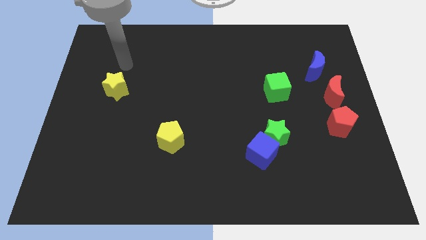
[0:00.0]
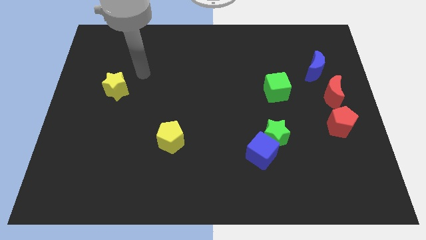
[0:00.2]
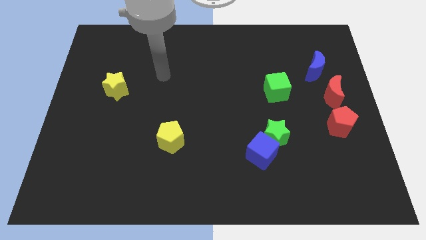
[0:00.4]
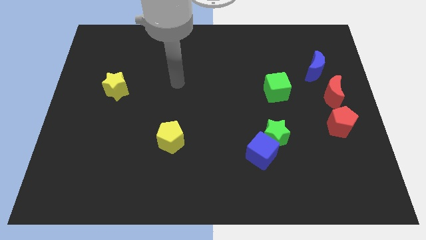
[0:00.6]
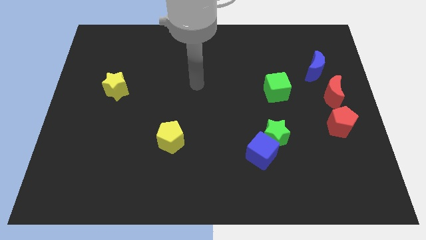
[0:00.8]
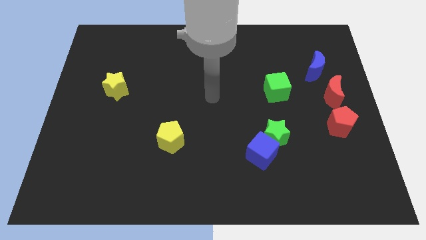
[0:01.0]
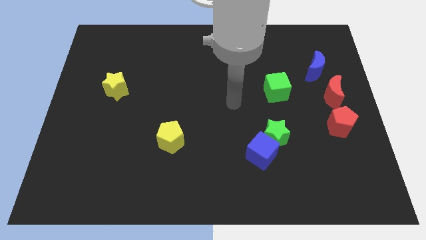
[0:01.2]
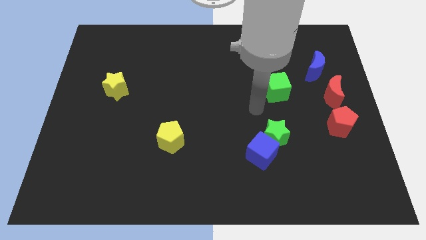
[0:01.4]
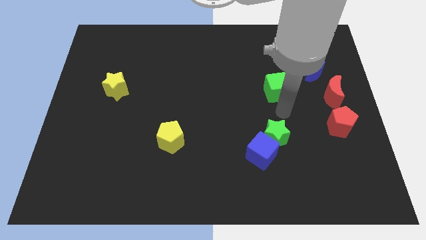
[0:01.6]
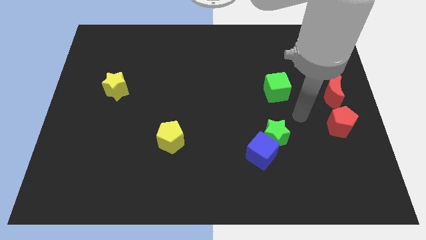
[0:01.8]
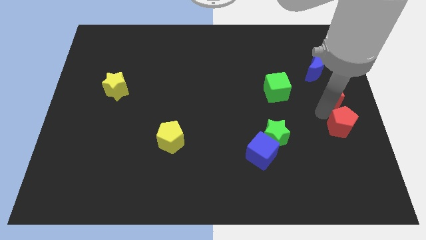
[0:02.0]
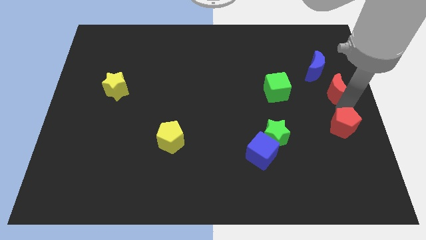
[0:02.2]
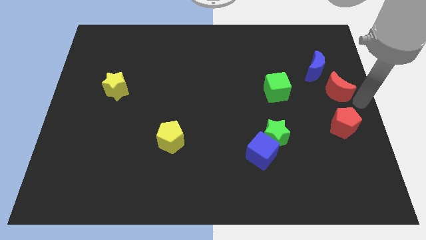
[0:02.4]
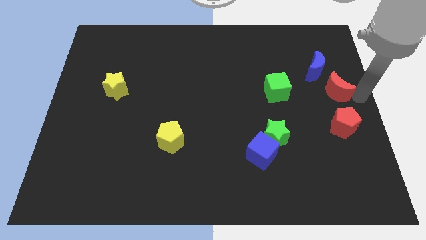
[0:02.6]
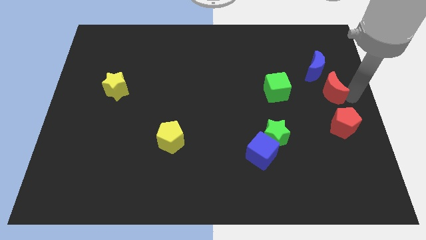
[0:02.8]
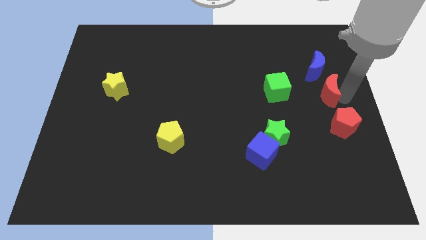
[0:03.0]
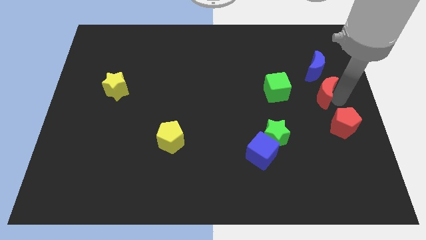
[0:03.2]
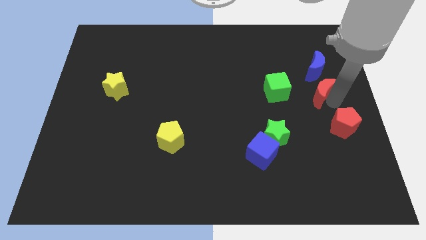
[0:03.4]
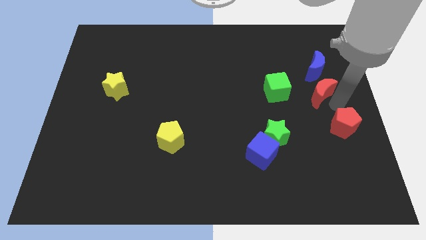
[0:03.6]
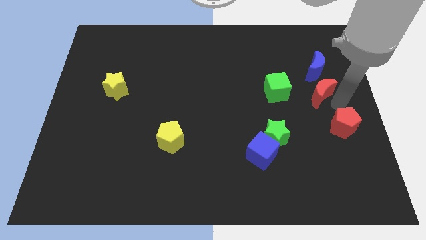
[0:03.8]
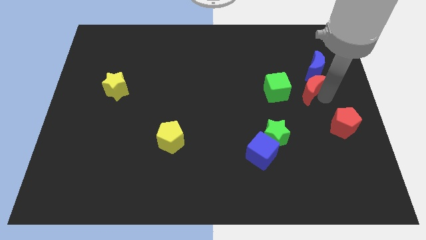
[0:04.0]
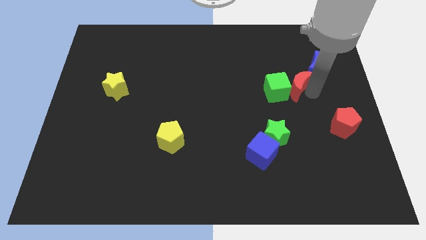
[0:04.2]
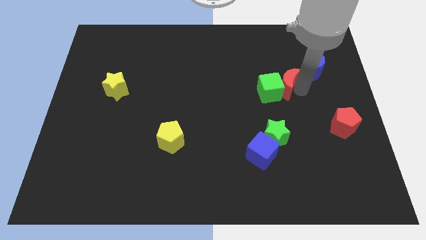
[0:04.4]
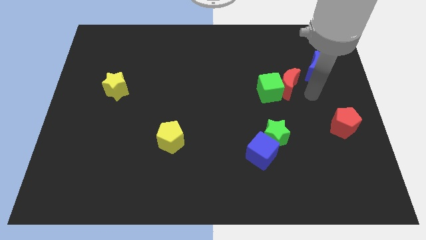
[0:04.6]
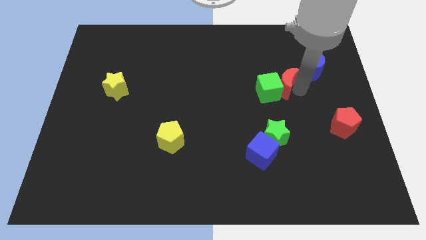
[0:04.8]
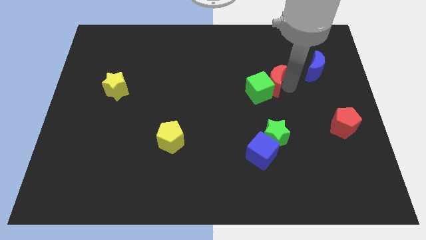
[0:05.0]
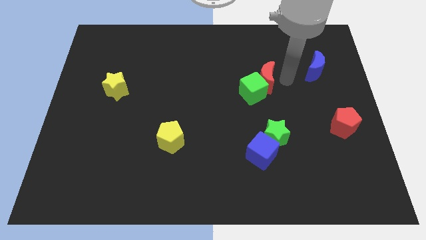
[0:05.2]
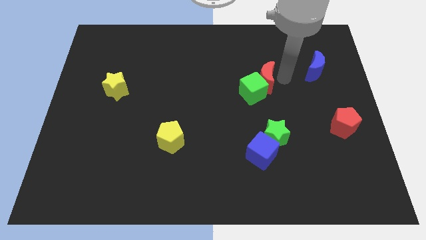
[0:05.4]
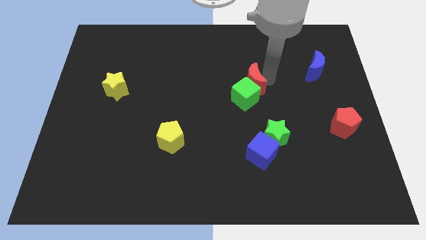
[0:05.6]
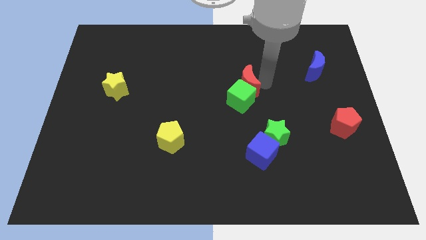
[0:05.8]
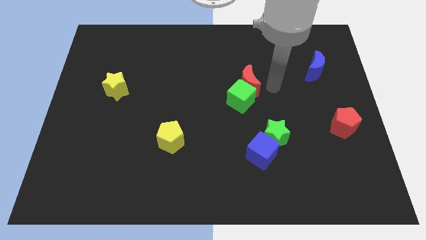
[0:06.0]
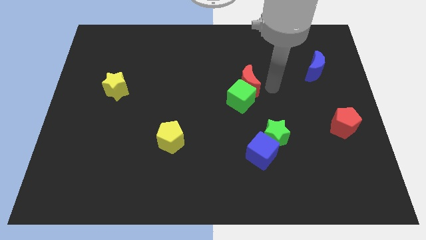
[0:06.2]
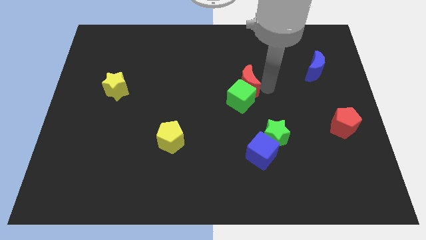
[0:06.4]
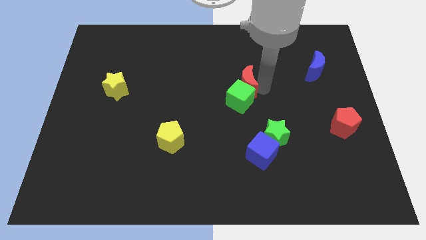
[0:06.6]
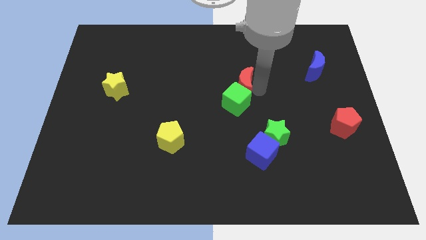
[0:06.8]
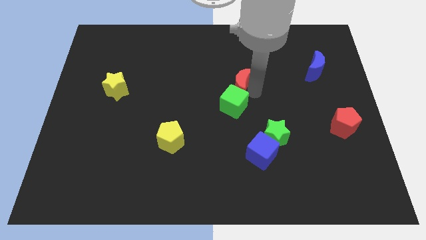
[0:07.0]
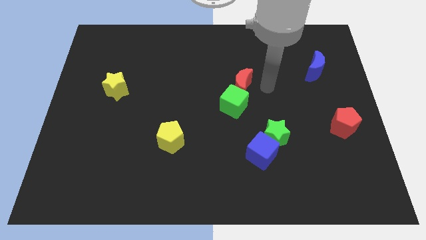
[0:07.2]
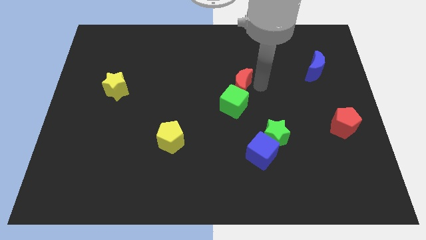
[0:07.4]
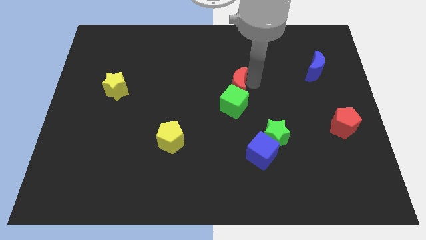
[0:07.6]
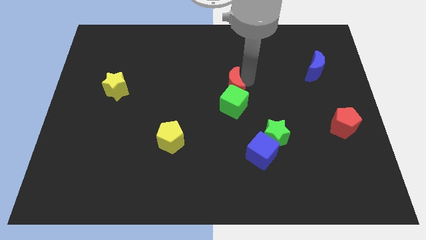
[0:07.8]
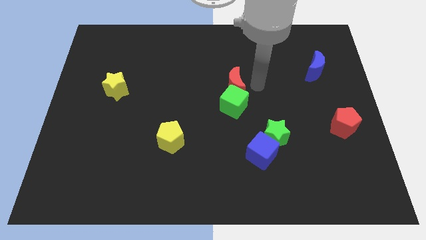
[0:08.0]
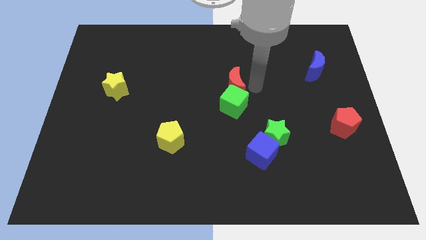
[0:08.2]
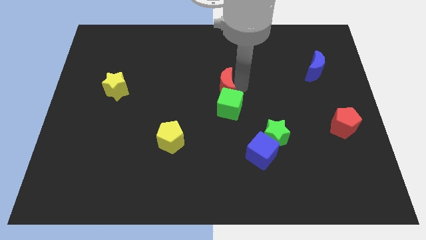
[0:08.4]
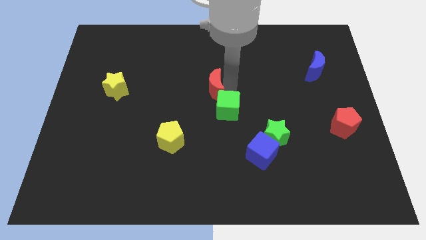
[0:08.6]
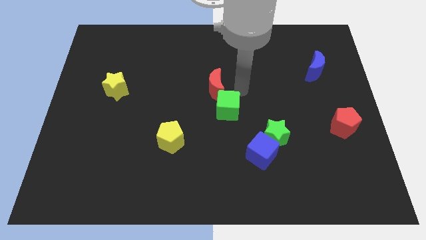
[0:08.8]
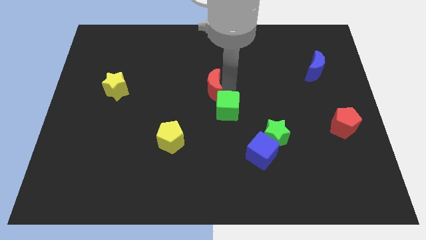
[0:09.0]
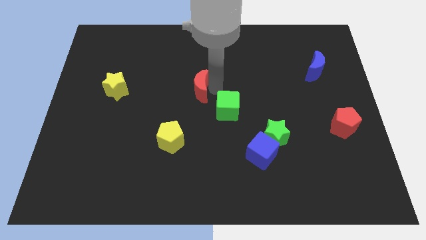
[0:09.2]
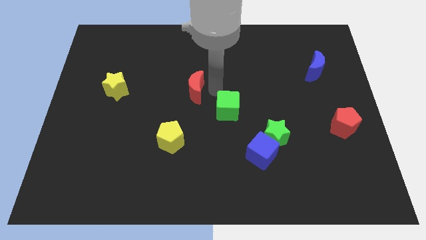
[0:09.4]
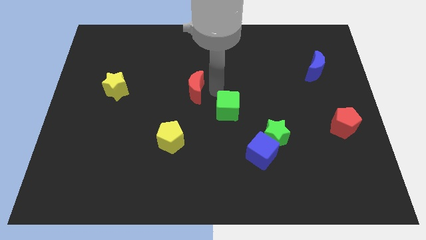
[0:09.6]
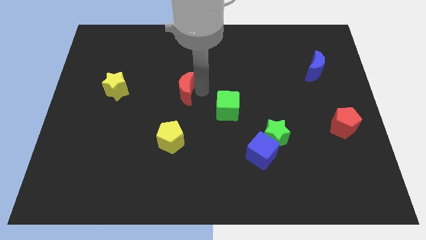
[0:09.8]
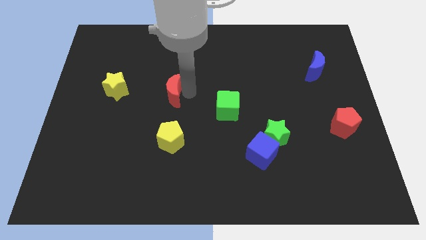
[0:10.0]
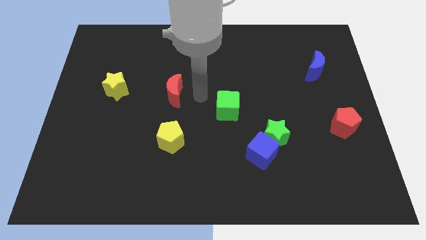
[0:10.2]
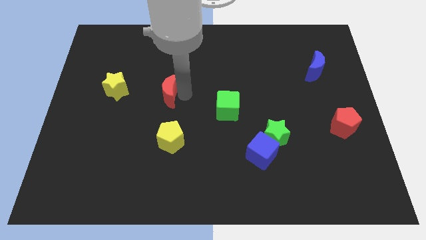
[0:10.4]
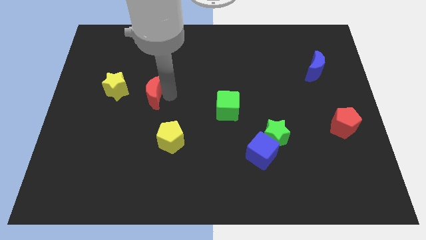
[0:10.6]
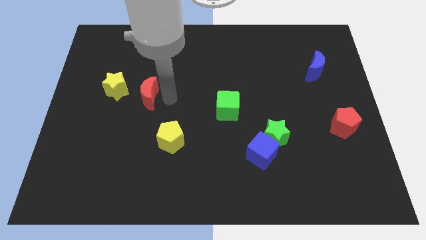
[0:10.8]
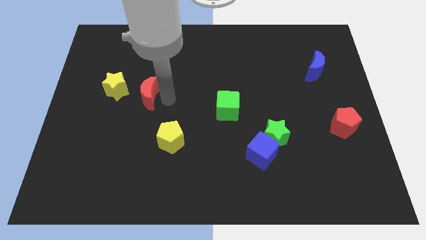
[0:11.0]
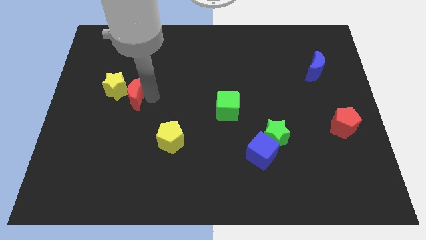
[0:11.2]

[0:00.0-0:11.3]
slide the red moon close to the yellow star

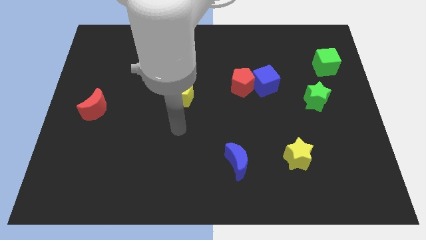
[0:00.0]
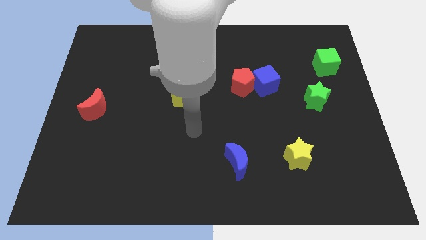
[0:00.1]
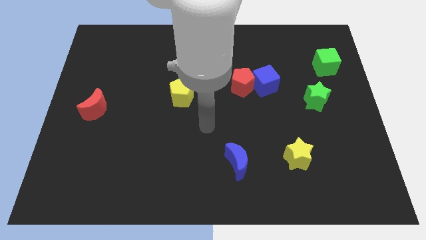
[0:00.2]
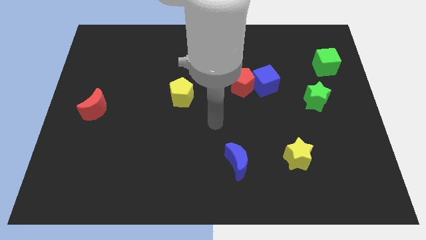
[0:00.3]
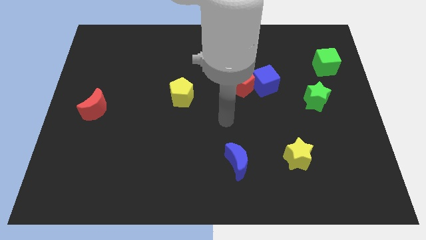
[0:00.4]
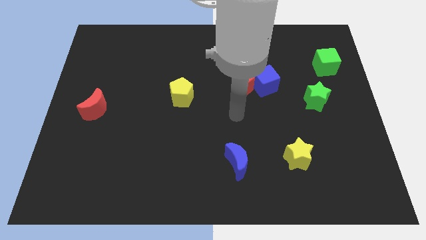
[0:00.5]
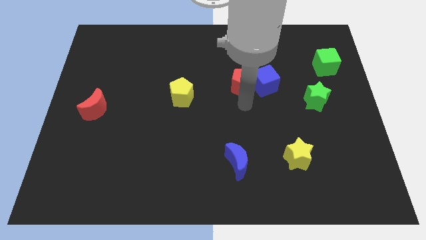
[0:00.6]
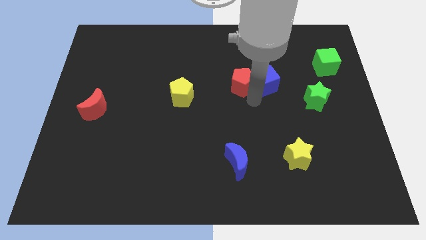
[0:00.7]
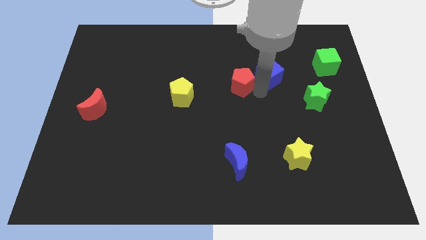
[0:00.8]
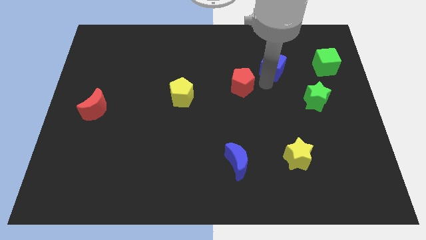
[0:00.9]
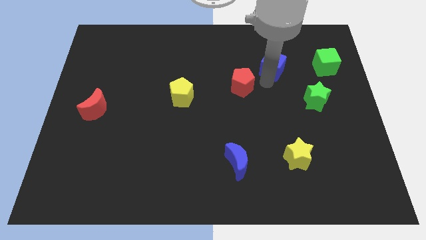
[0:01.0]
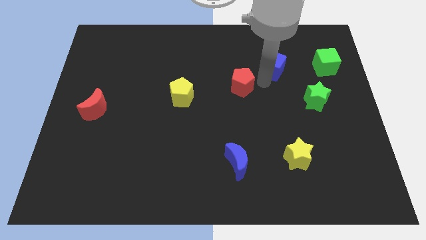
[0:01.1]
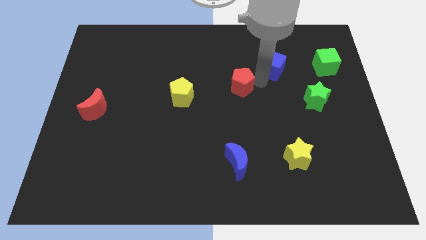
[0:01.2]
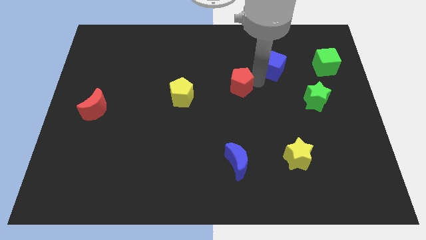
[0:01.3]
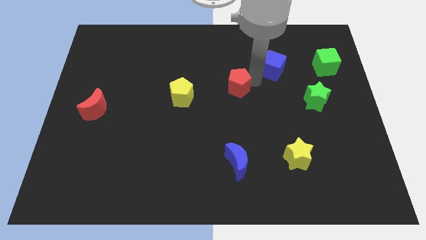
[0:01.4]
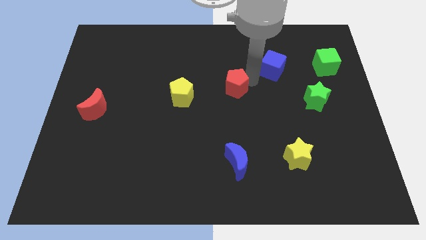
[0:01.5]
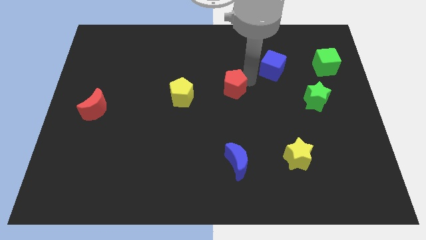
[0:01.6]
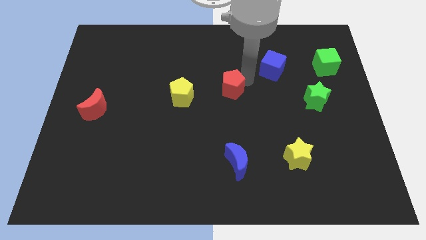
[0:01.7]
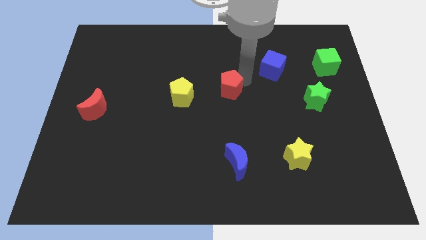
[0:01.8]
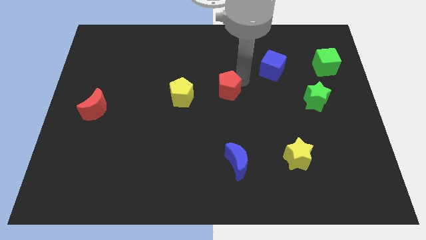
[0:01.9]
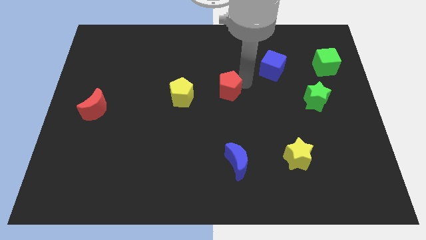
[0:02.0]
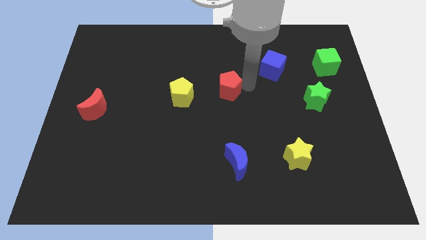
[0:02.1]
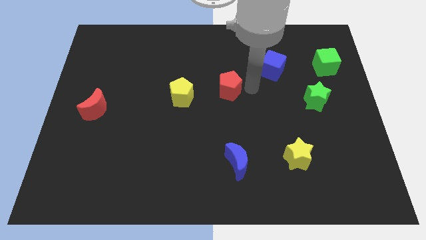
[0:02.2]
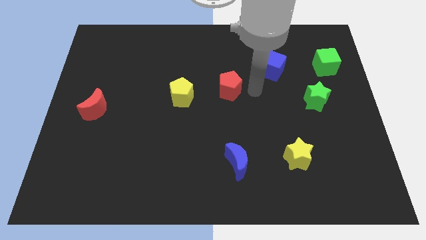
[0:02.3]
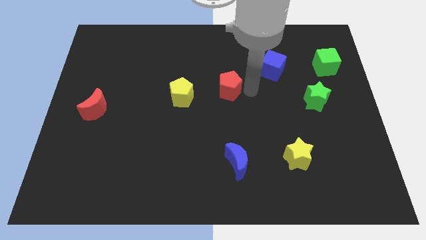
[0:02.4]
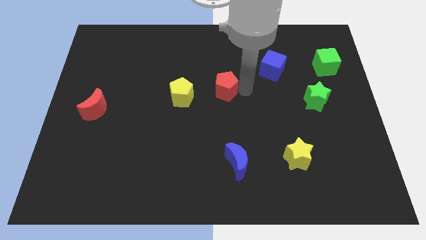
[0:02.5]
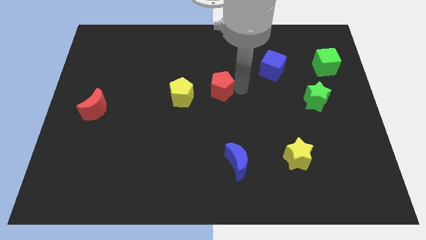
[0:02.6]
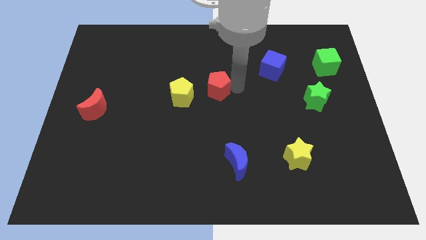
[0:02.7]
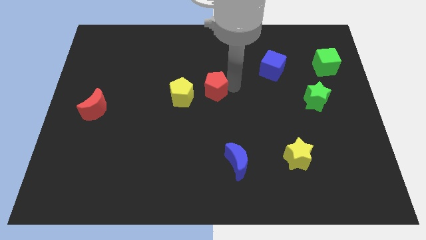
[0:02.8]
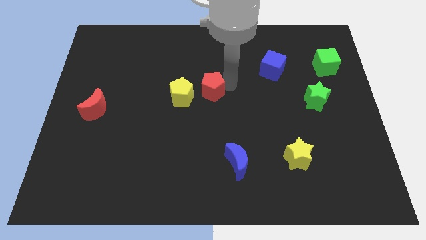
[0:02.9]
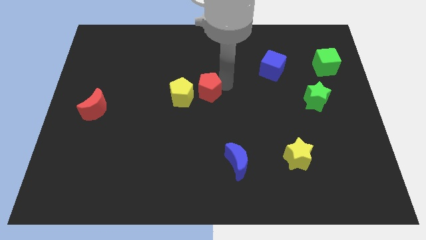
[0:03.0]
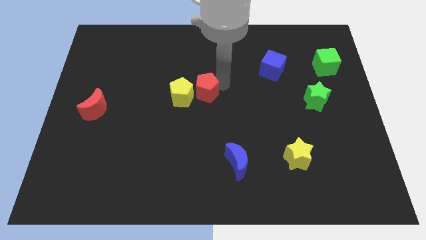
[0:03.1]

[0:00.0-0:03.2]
push the red pentagon next to the yellow pentagon
